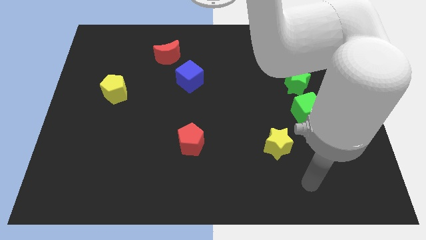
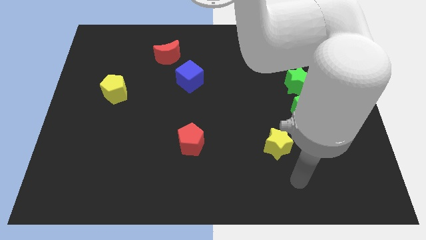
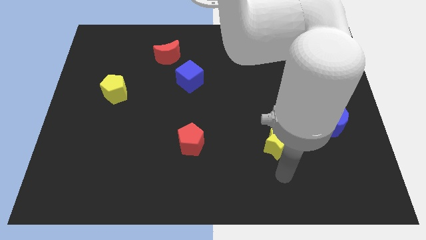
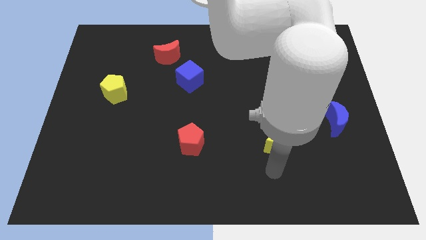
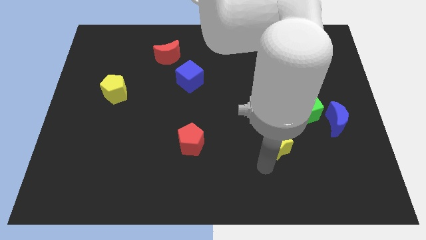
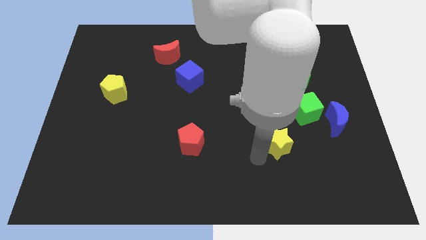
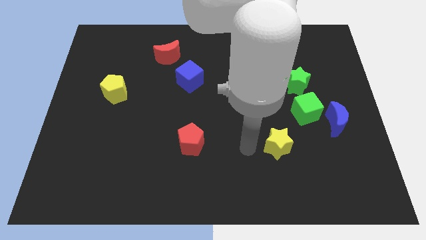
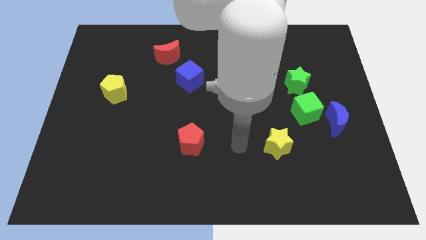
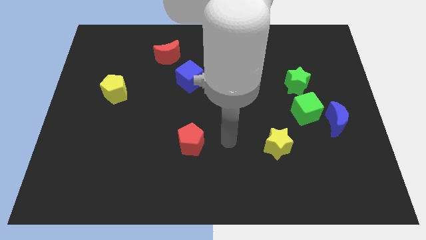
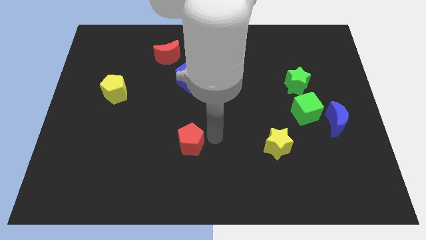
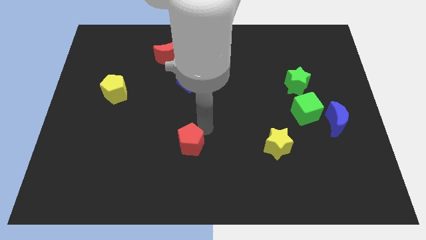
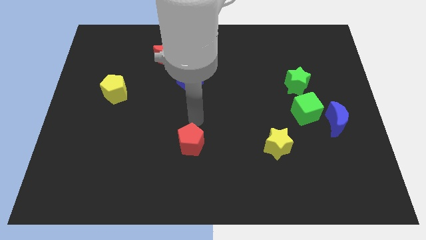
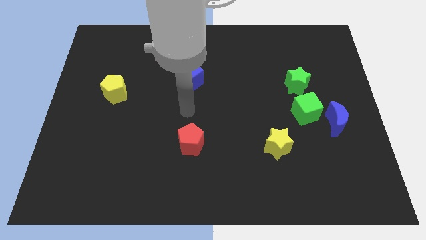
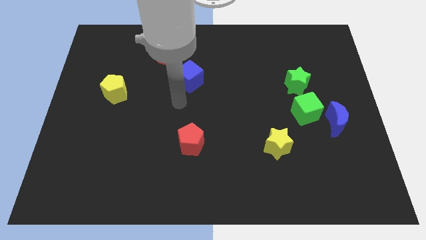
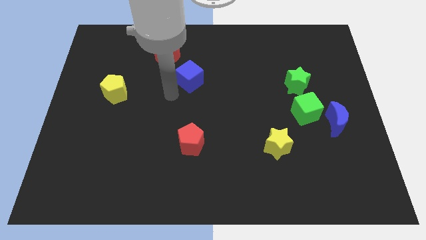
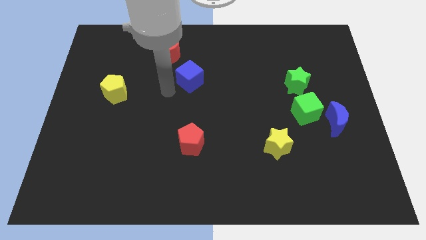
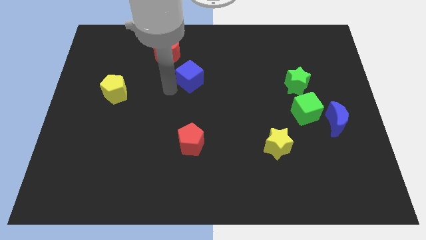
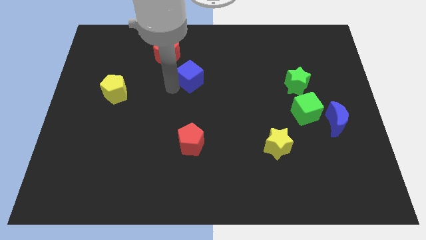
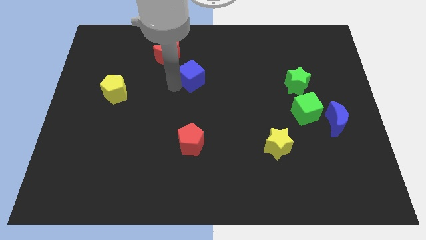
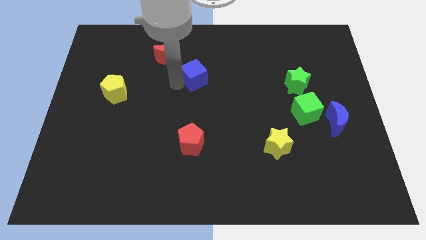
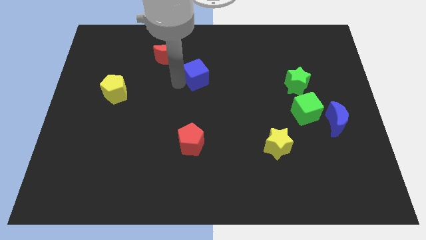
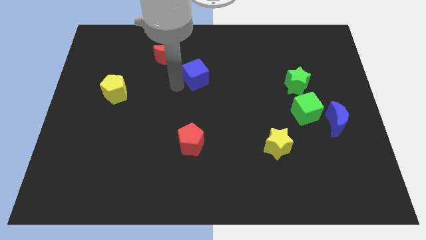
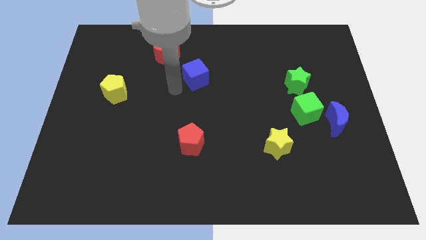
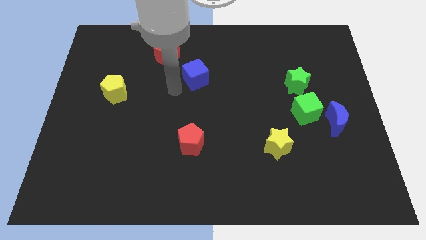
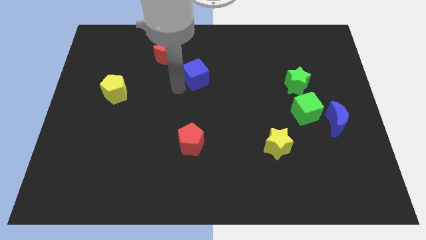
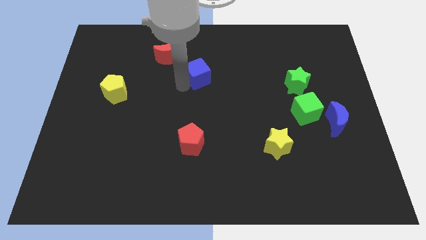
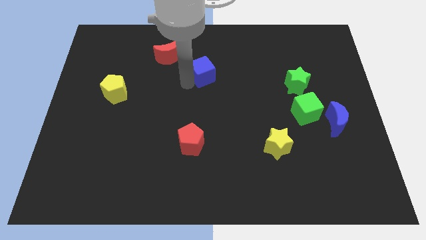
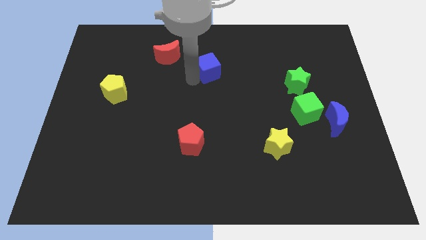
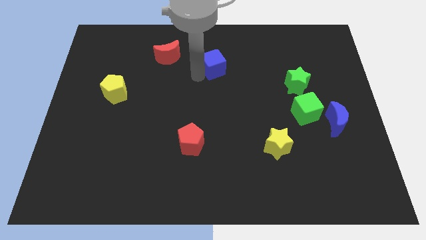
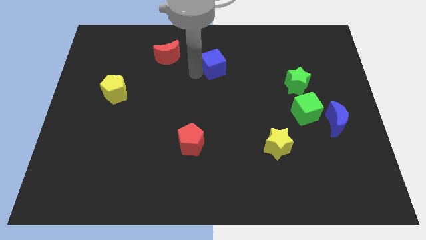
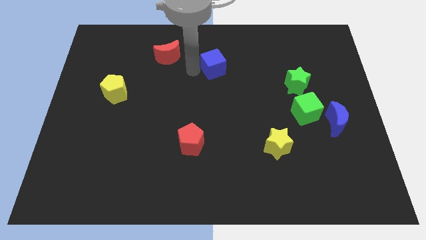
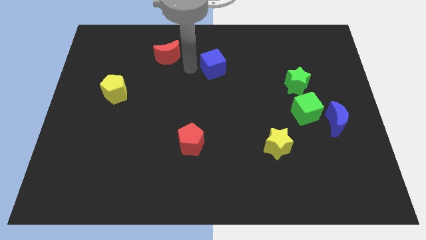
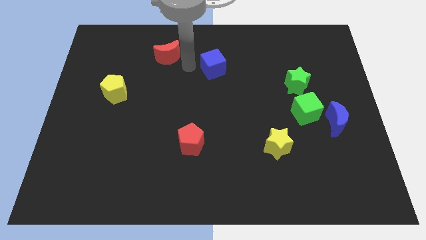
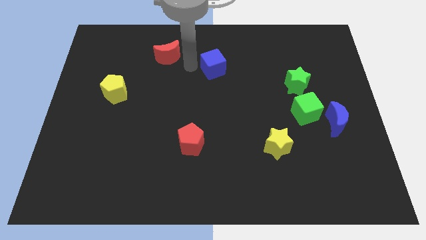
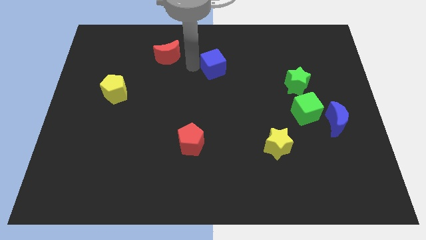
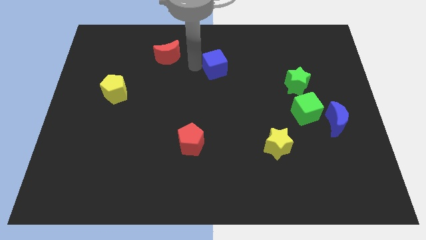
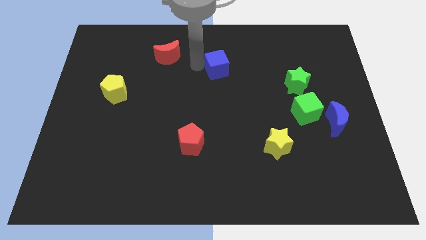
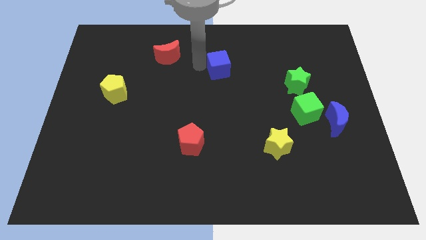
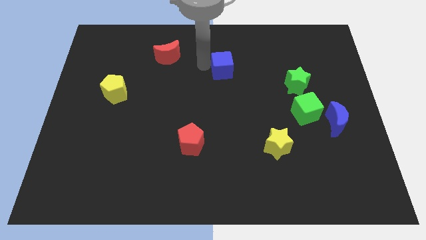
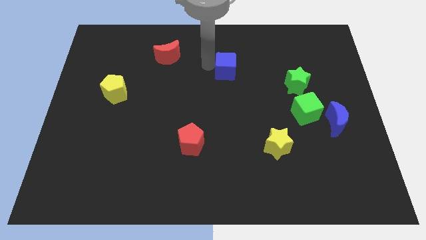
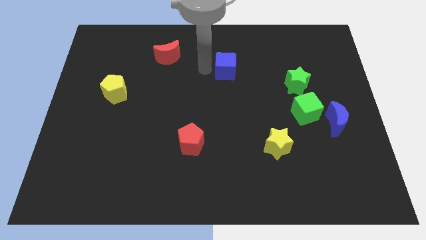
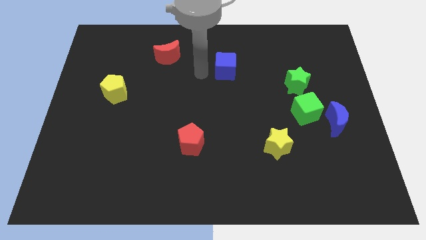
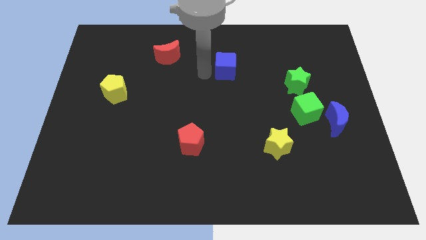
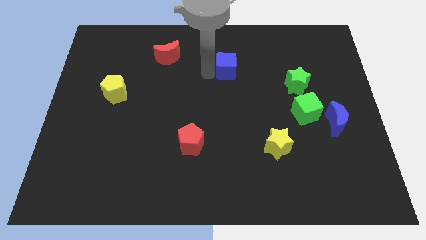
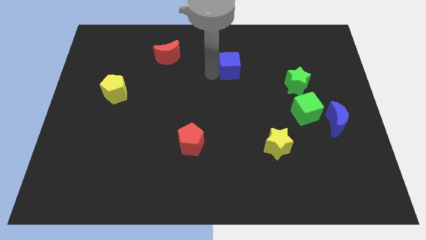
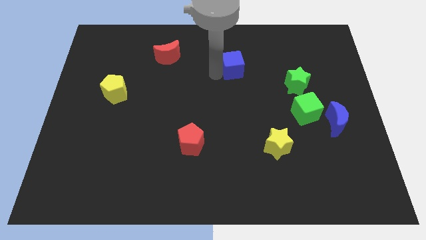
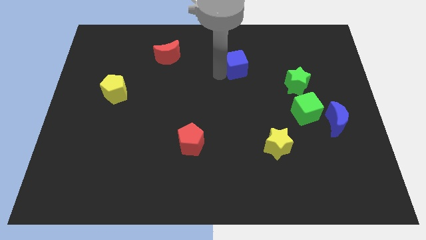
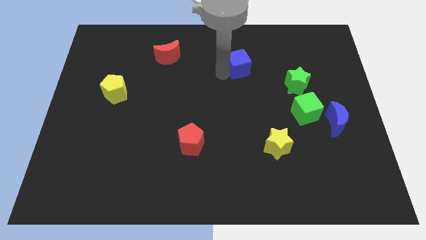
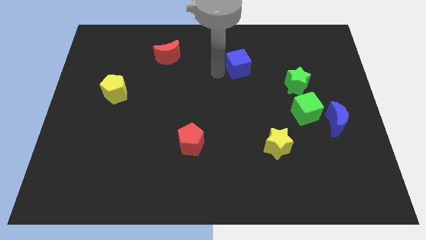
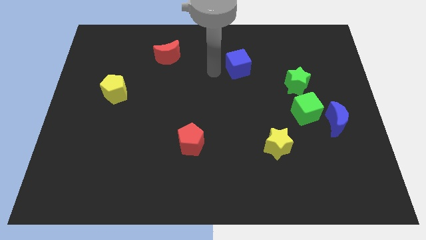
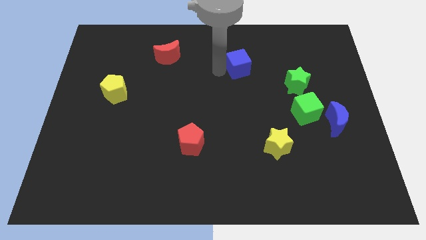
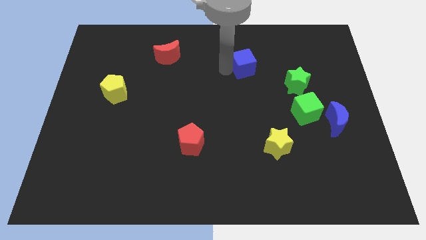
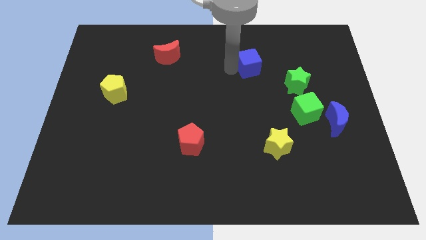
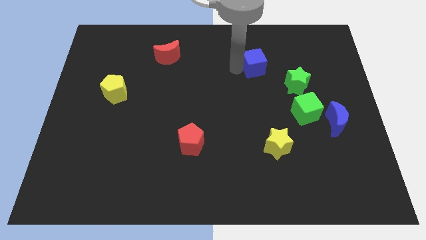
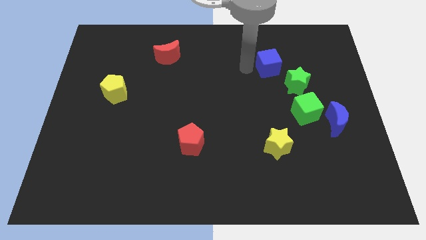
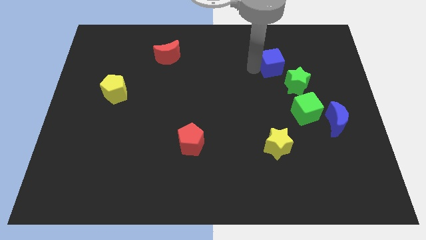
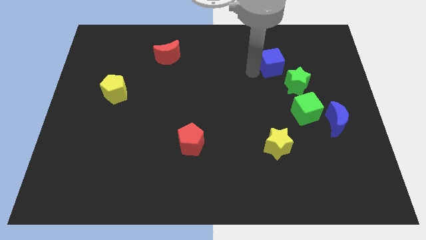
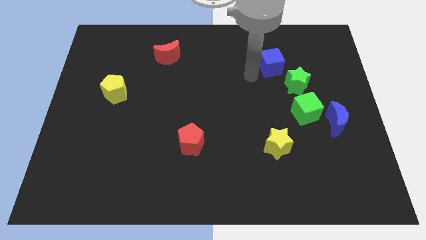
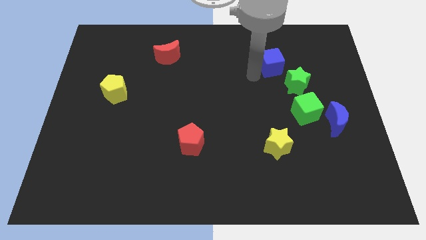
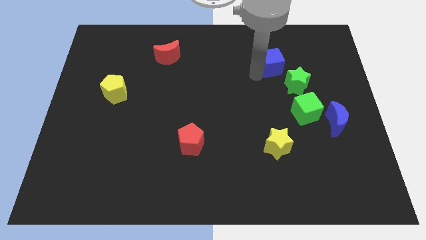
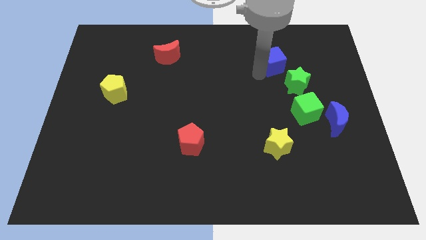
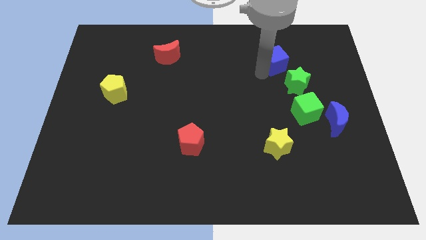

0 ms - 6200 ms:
push the blue cube to the top side of the green star

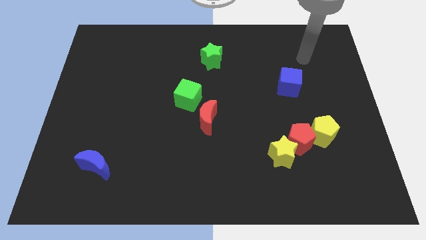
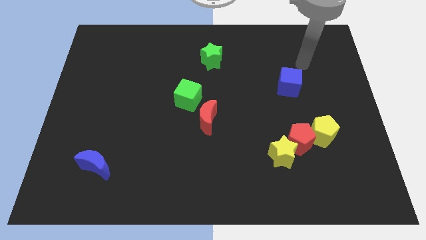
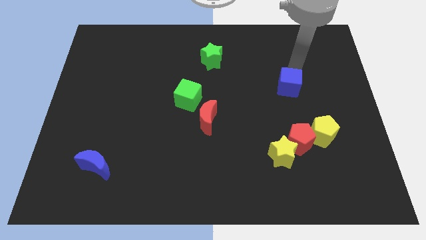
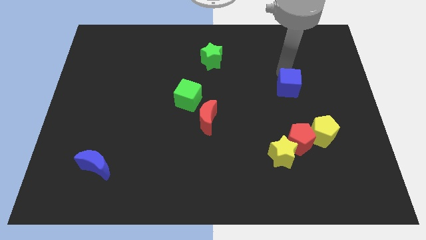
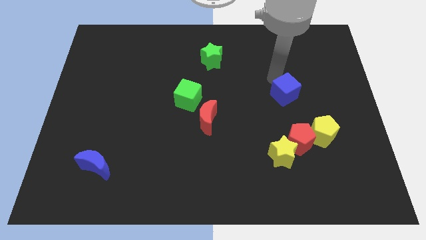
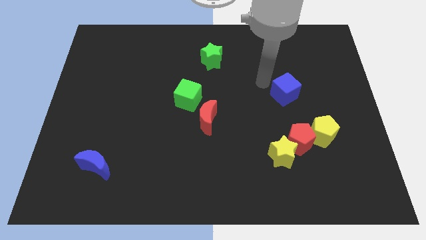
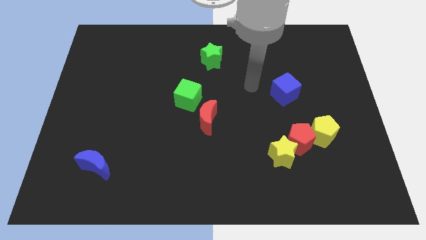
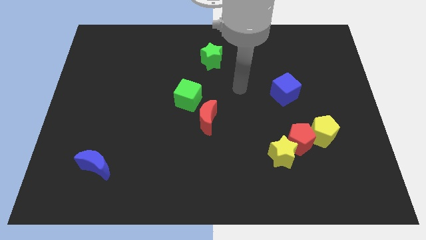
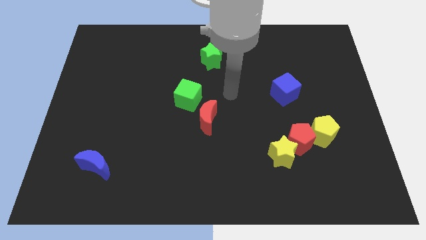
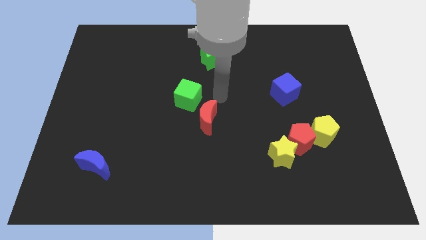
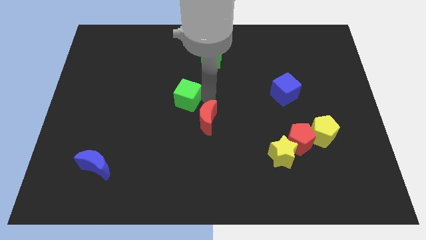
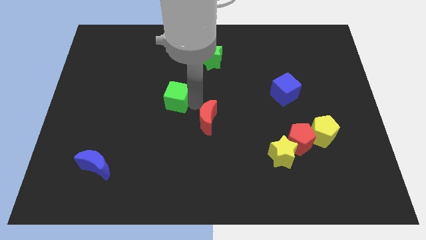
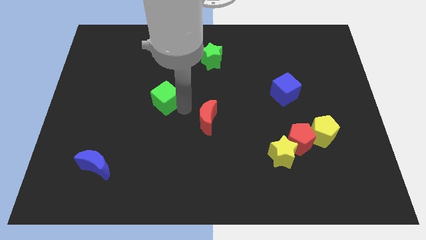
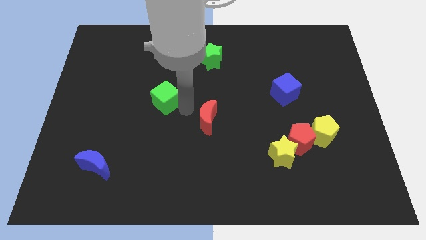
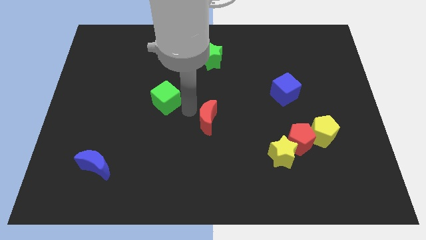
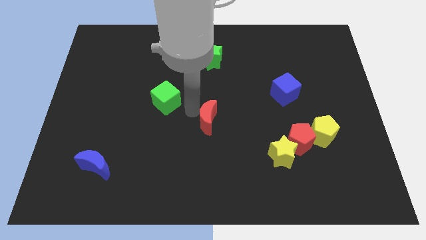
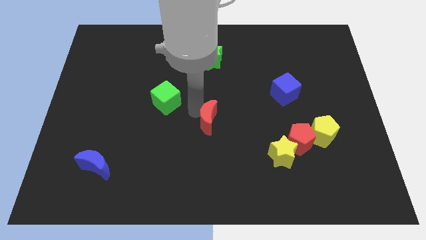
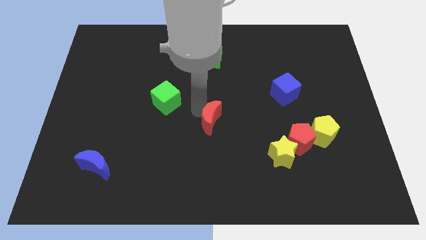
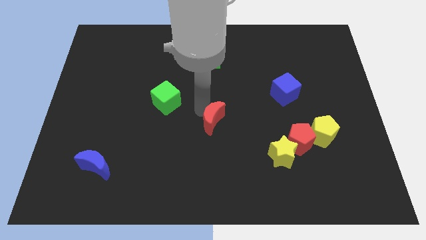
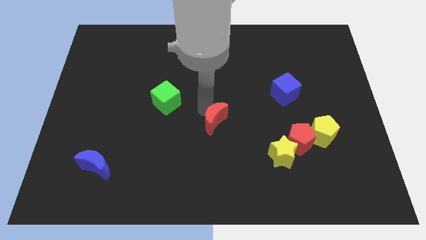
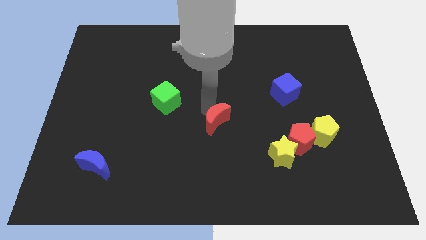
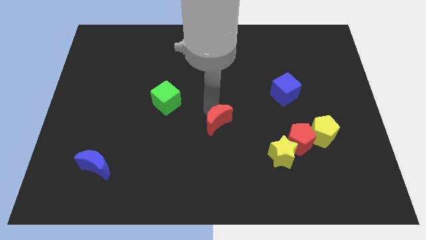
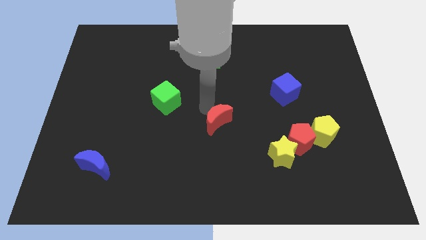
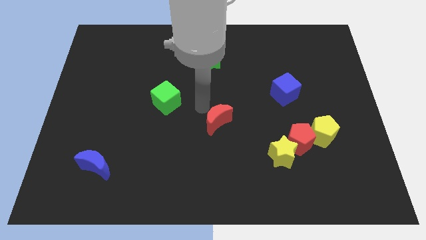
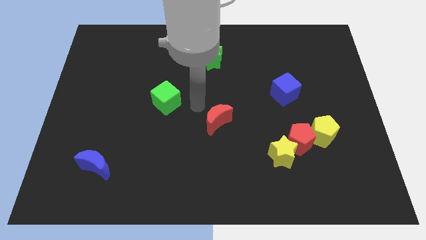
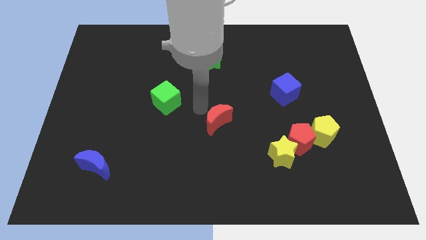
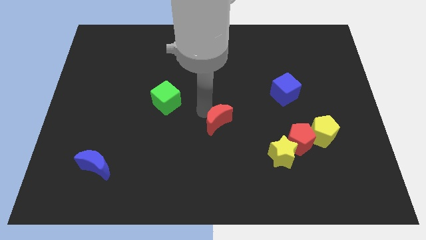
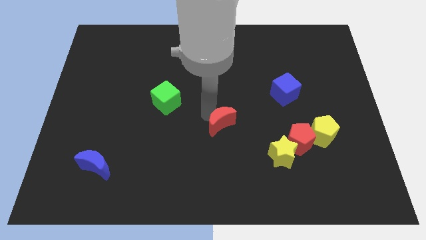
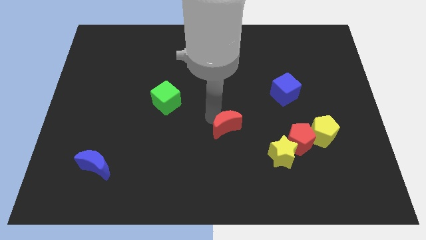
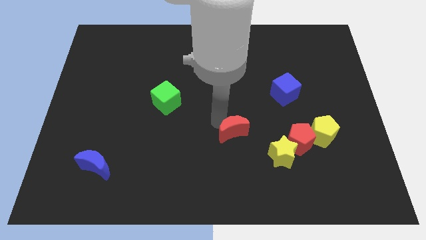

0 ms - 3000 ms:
push the red moon to the left side of the red pentagon
